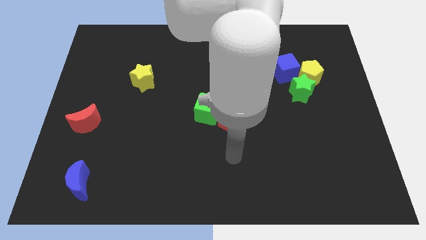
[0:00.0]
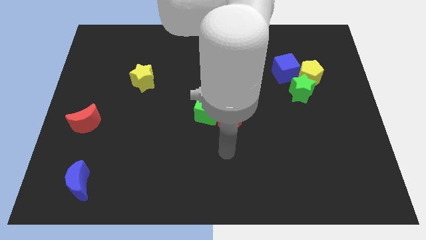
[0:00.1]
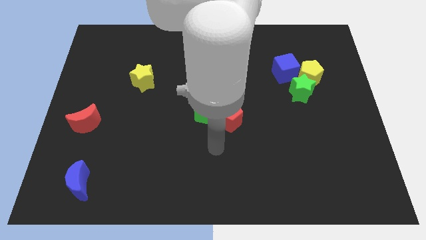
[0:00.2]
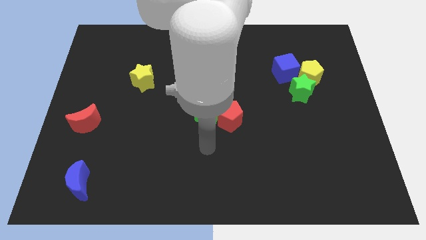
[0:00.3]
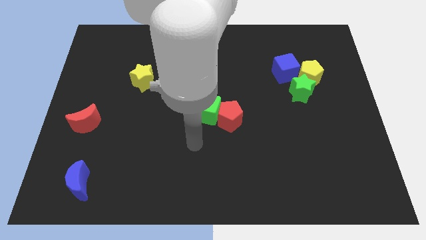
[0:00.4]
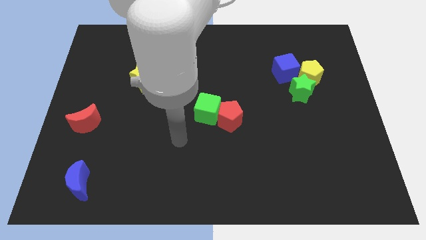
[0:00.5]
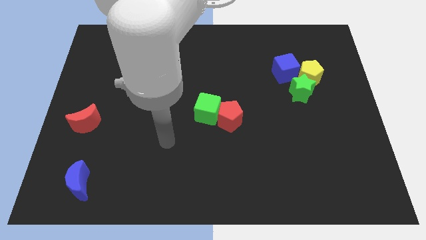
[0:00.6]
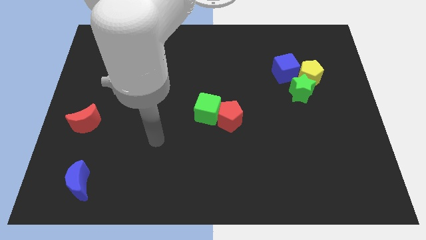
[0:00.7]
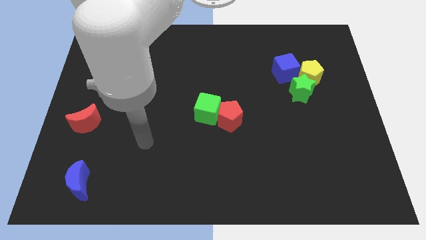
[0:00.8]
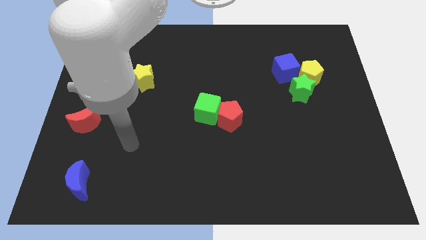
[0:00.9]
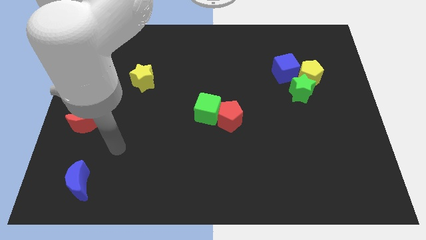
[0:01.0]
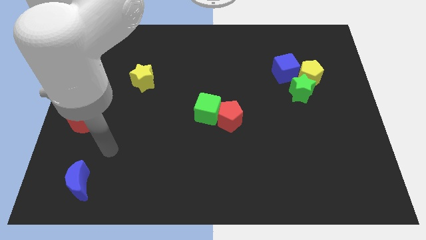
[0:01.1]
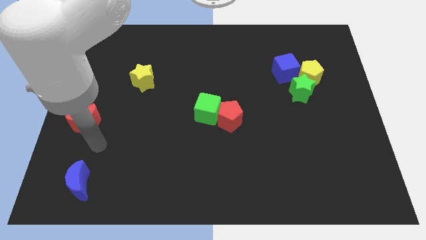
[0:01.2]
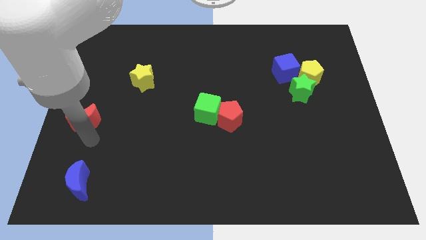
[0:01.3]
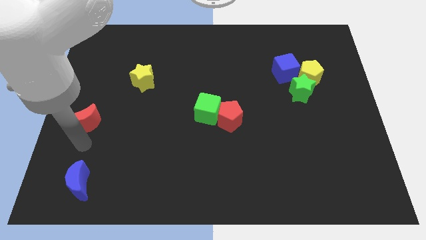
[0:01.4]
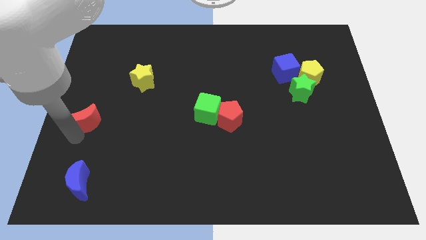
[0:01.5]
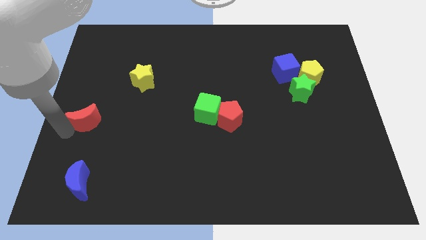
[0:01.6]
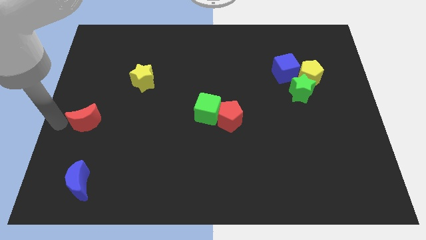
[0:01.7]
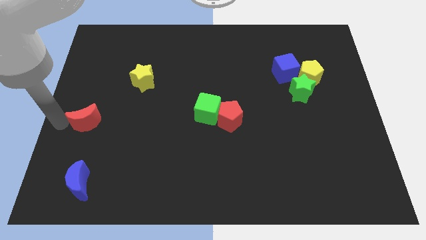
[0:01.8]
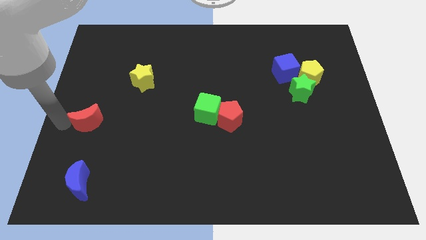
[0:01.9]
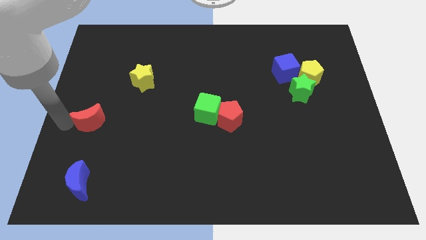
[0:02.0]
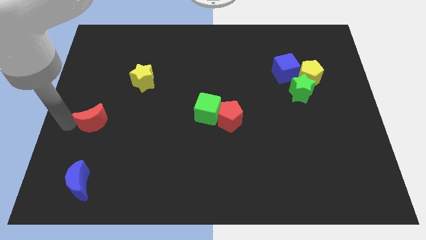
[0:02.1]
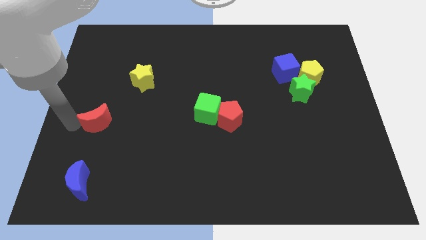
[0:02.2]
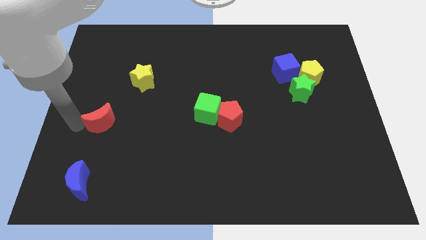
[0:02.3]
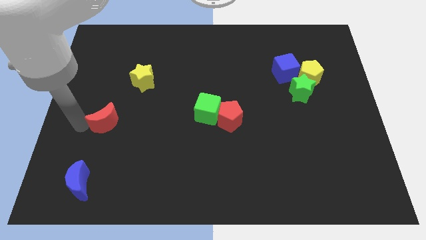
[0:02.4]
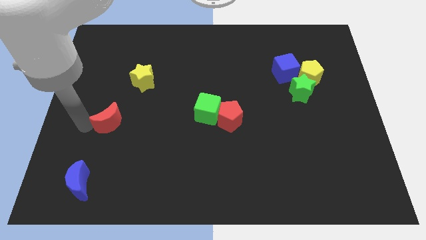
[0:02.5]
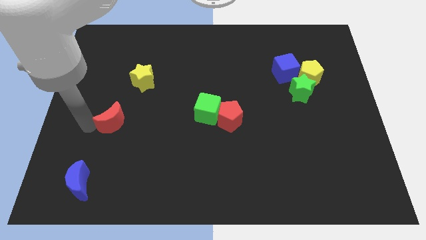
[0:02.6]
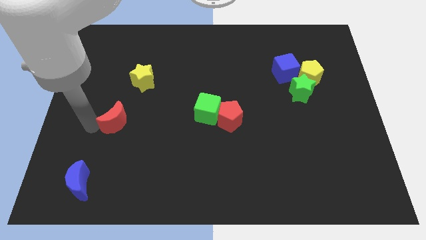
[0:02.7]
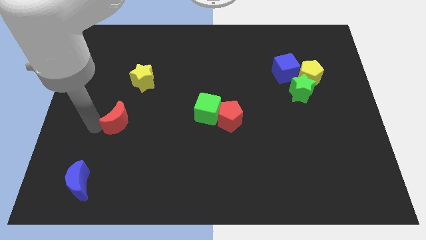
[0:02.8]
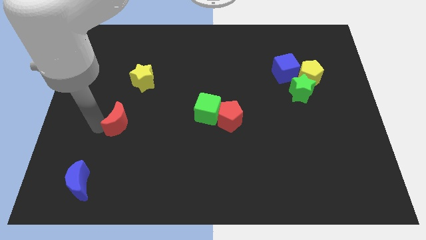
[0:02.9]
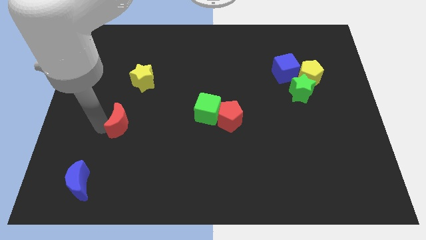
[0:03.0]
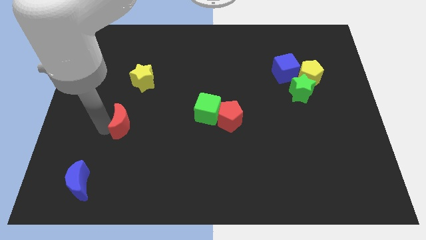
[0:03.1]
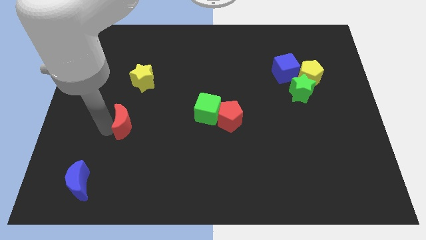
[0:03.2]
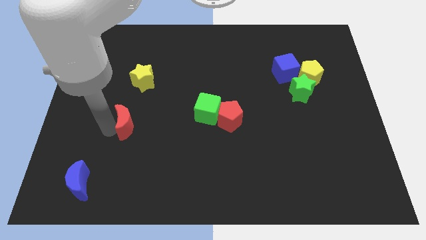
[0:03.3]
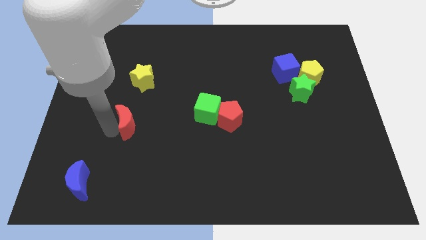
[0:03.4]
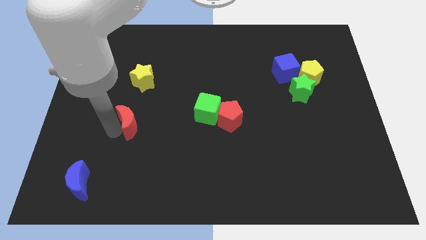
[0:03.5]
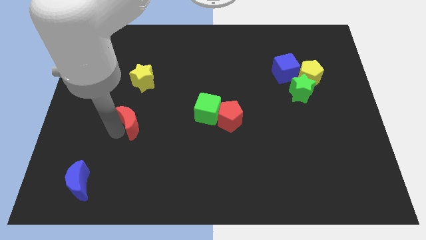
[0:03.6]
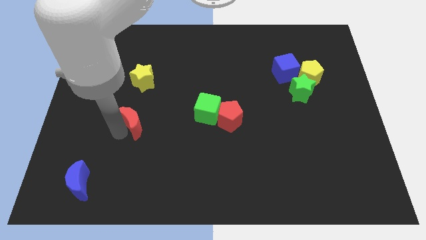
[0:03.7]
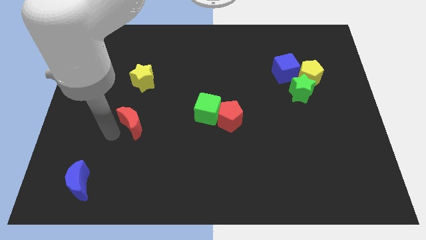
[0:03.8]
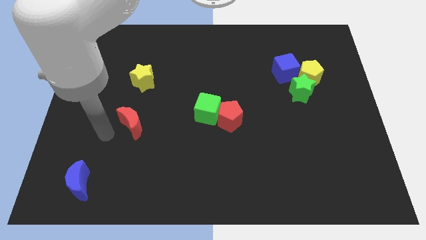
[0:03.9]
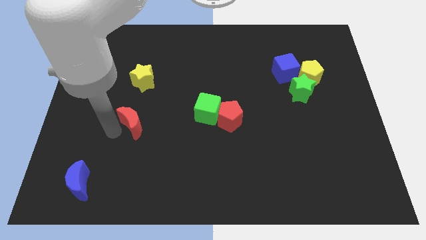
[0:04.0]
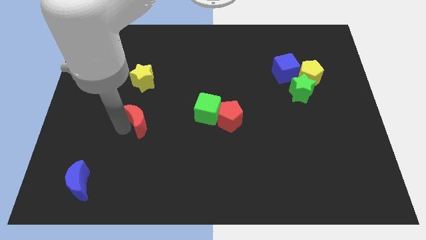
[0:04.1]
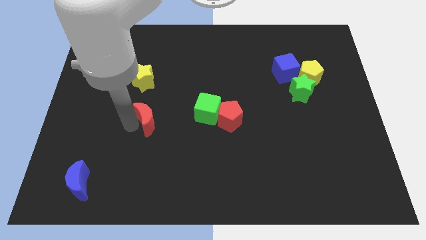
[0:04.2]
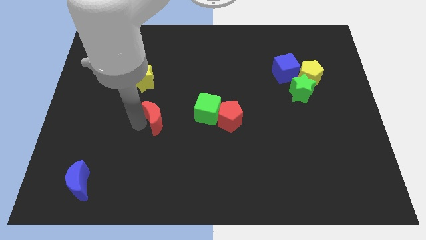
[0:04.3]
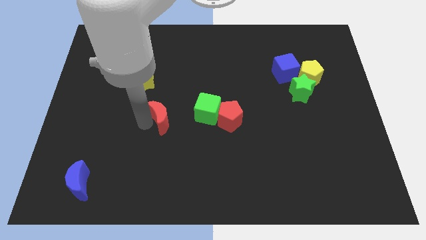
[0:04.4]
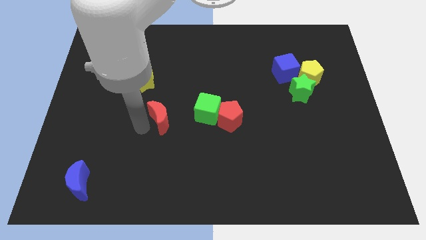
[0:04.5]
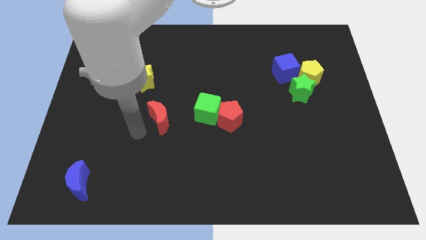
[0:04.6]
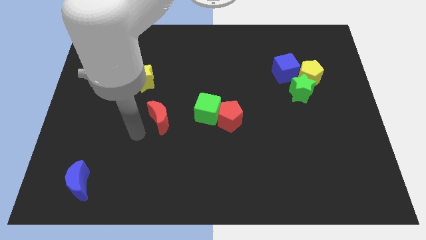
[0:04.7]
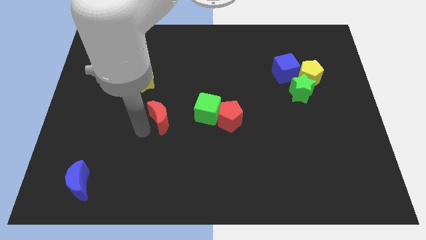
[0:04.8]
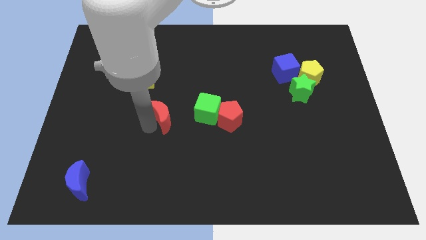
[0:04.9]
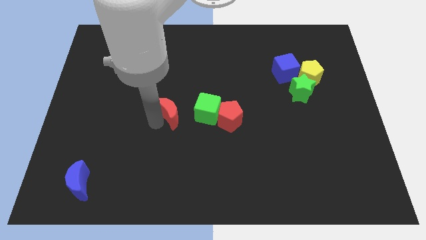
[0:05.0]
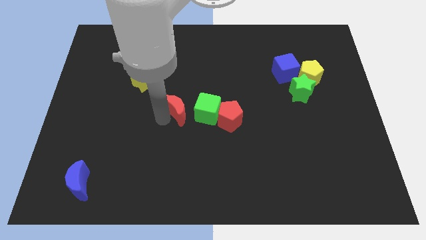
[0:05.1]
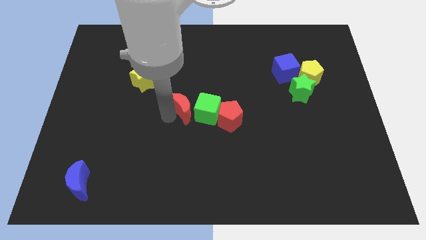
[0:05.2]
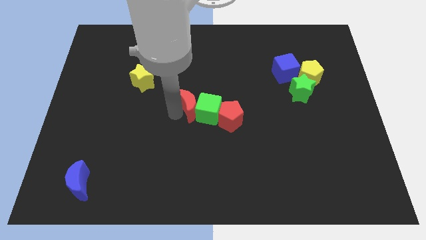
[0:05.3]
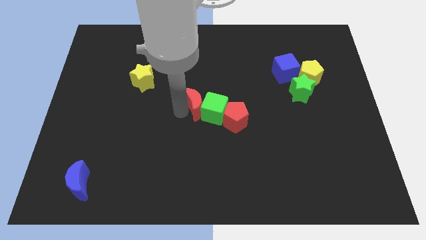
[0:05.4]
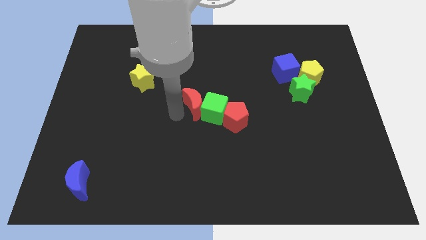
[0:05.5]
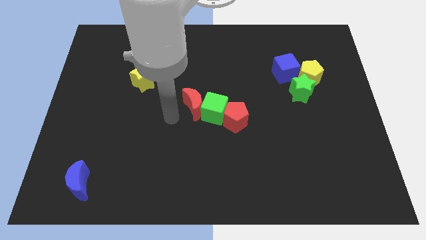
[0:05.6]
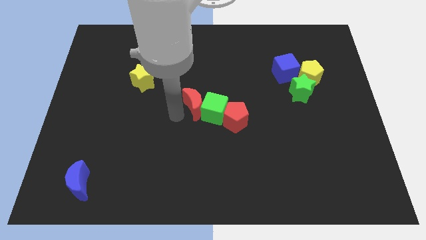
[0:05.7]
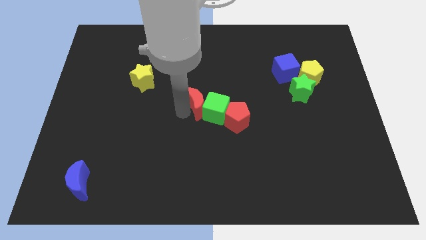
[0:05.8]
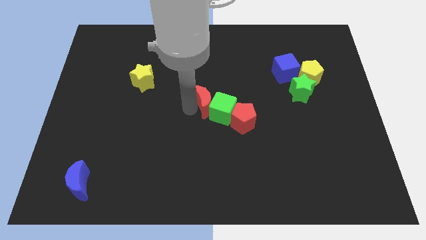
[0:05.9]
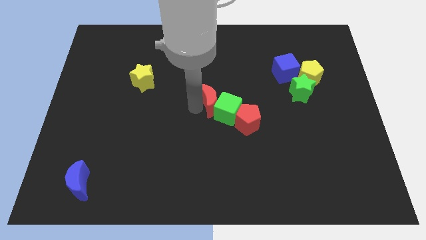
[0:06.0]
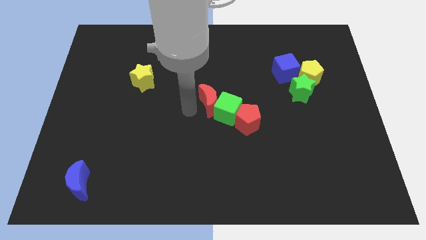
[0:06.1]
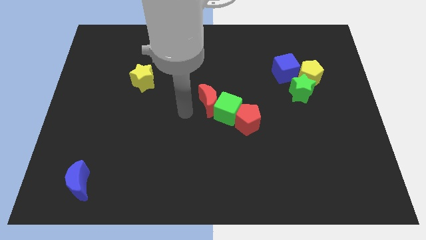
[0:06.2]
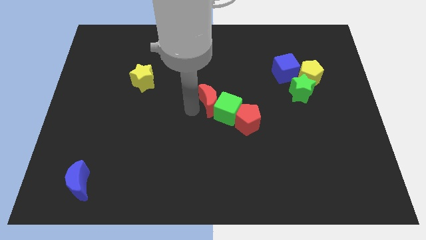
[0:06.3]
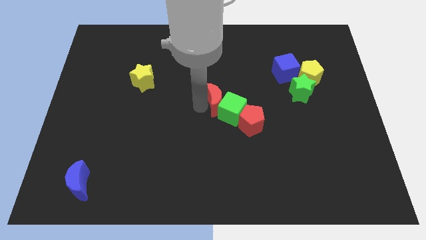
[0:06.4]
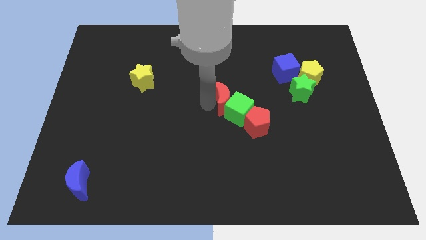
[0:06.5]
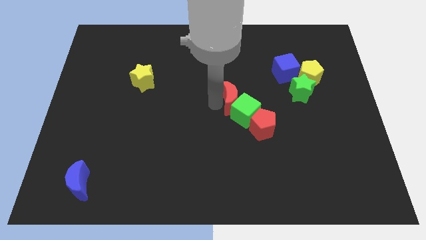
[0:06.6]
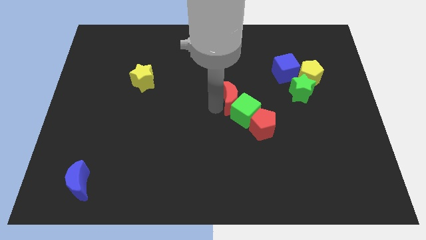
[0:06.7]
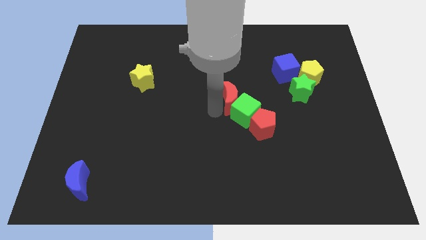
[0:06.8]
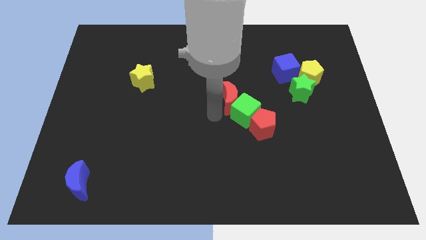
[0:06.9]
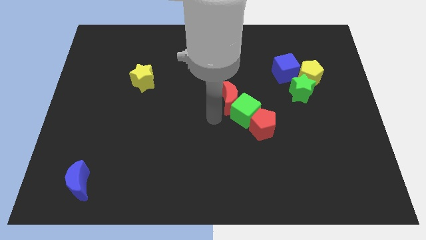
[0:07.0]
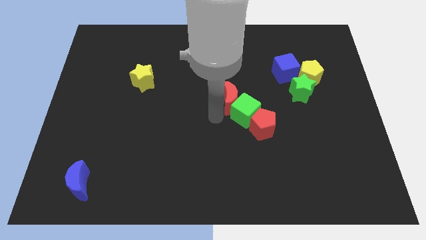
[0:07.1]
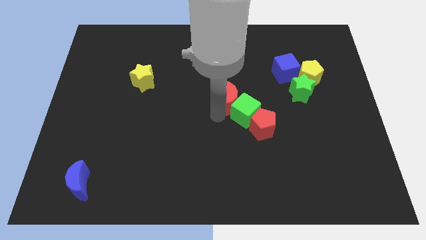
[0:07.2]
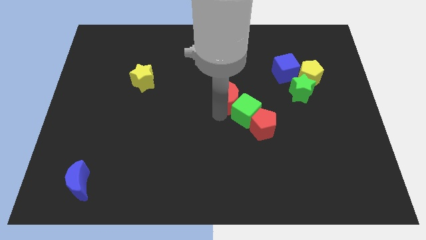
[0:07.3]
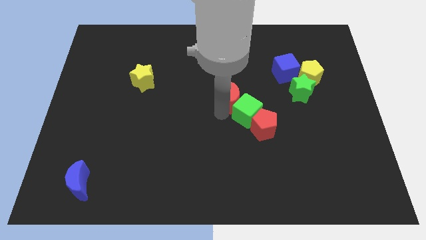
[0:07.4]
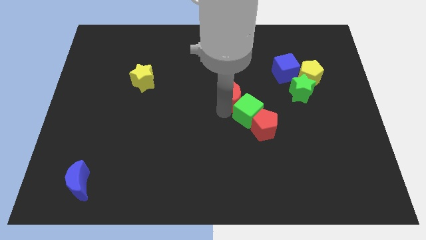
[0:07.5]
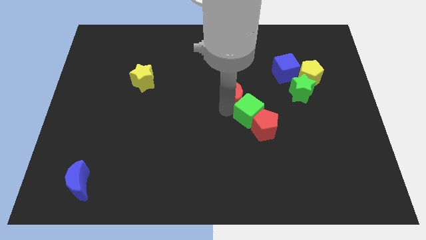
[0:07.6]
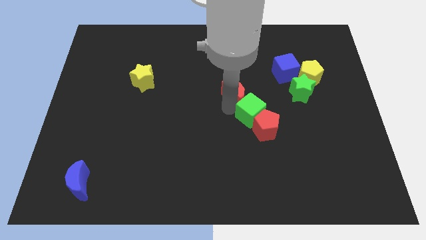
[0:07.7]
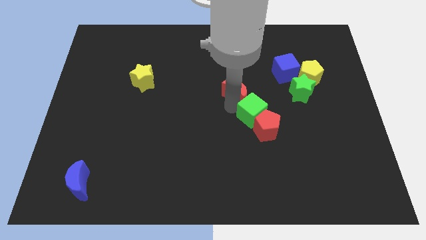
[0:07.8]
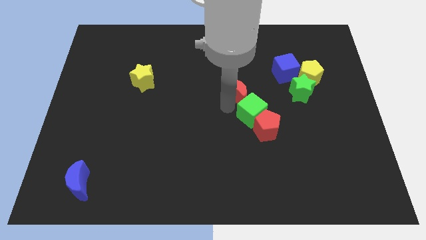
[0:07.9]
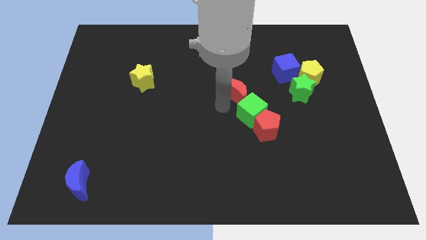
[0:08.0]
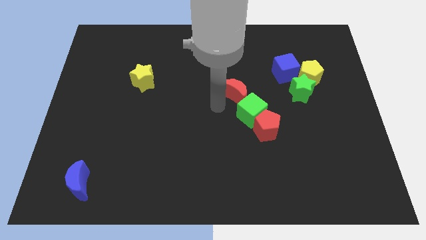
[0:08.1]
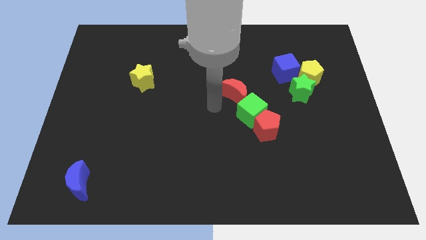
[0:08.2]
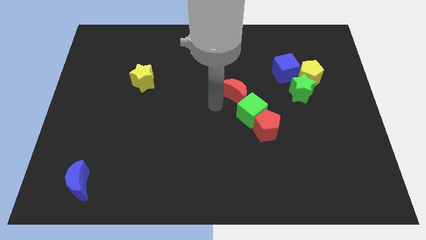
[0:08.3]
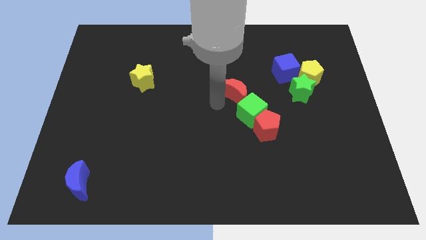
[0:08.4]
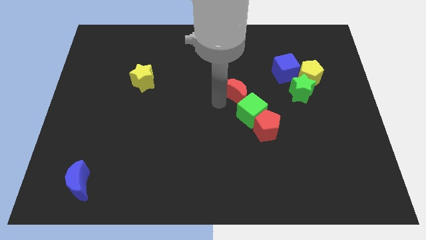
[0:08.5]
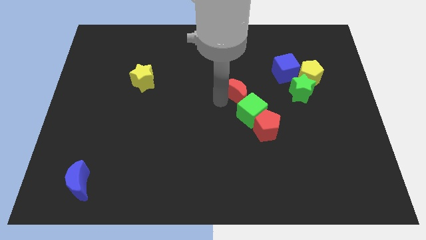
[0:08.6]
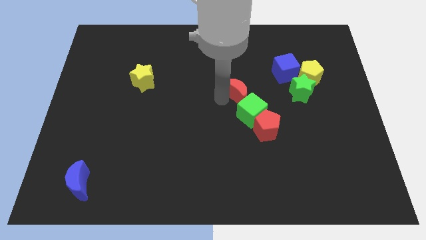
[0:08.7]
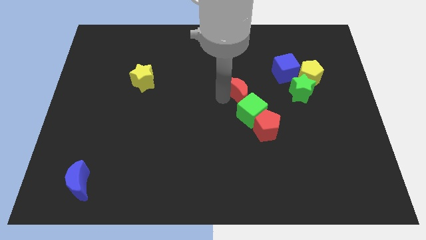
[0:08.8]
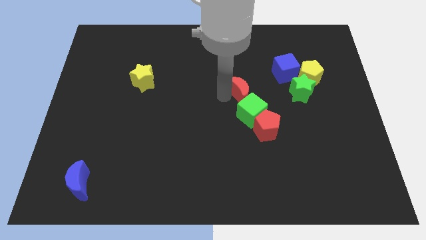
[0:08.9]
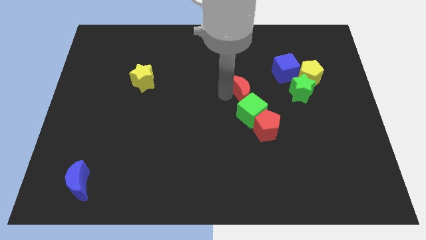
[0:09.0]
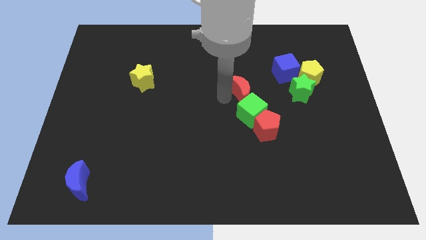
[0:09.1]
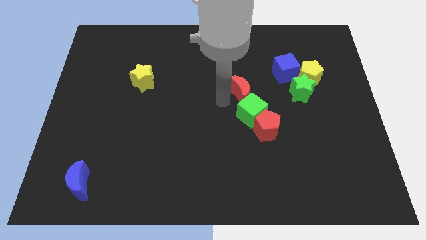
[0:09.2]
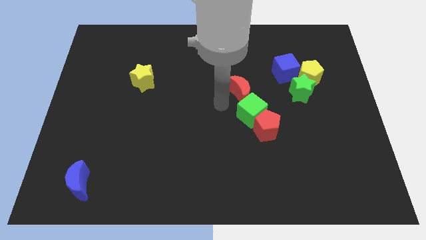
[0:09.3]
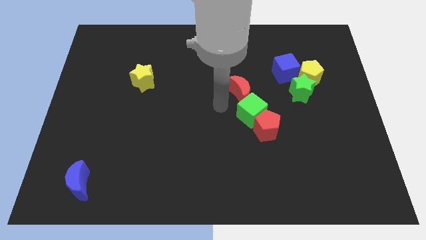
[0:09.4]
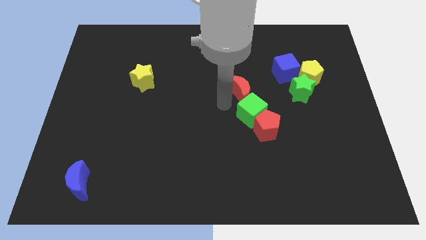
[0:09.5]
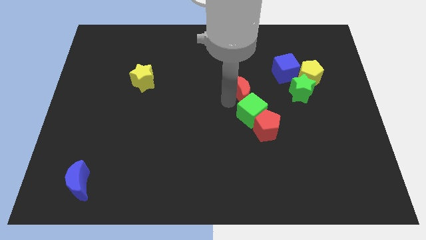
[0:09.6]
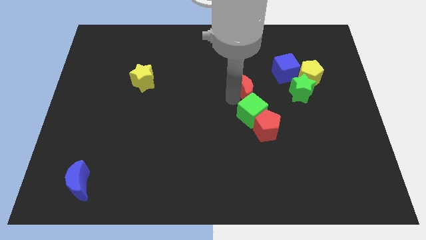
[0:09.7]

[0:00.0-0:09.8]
put the red moon to the bottom left of the blue cube
